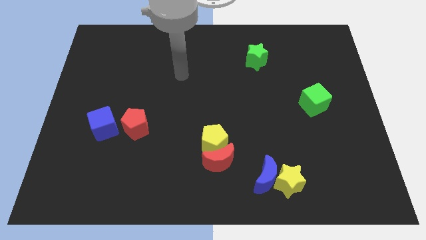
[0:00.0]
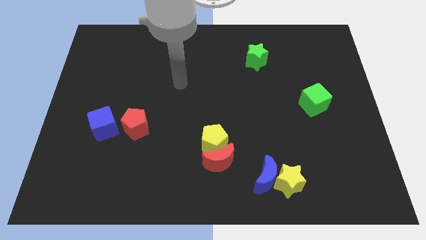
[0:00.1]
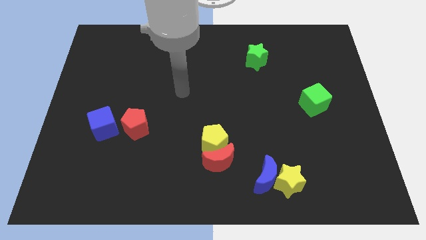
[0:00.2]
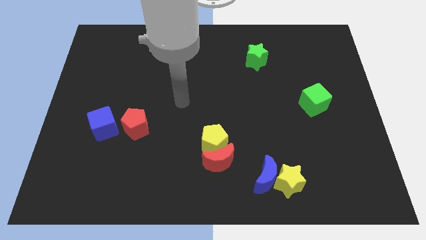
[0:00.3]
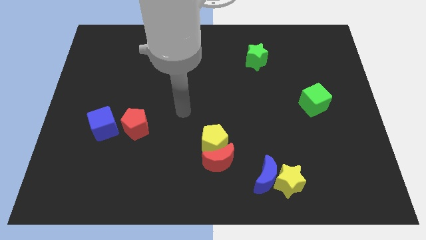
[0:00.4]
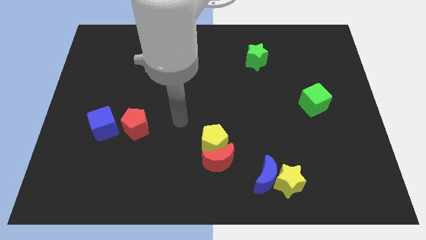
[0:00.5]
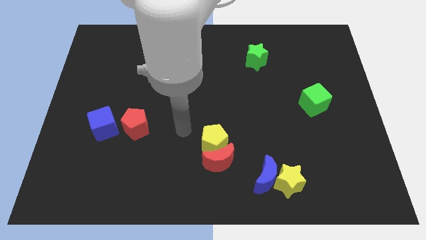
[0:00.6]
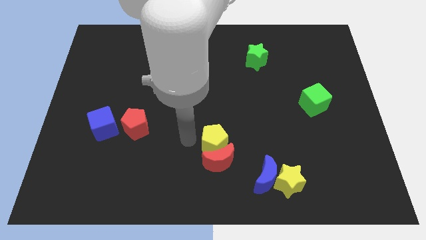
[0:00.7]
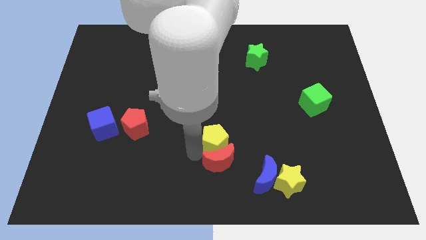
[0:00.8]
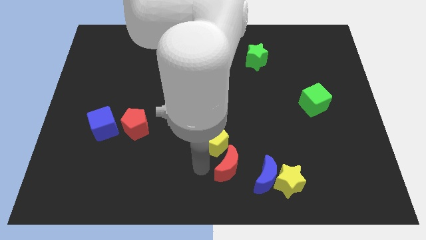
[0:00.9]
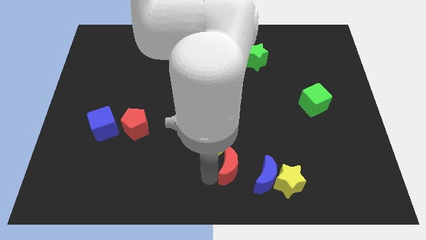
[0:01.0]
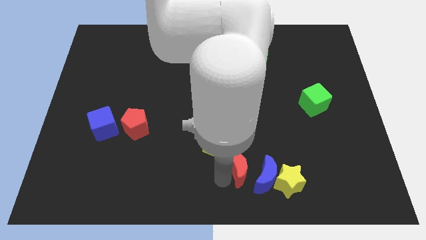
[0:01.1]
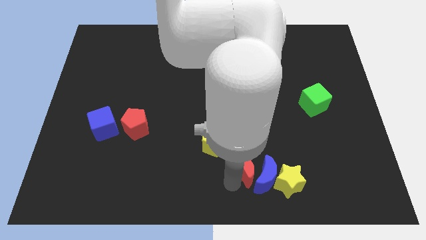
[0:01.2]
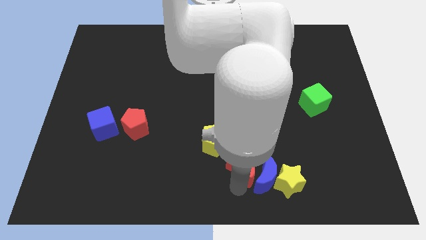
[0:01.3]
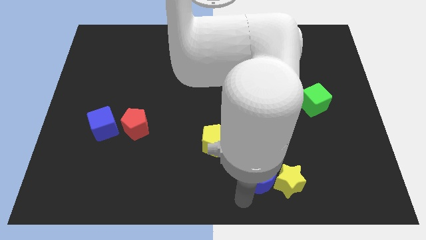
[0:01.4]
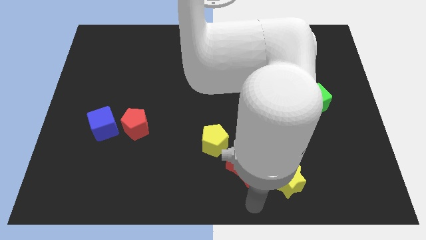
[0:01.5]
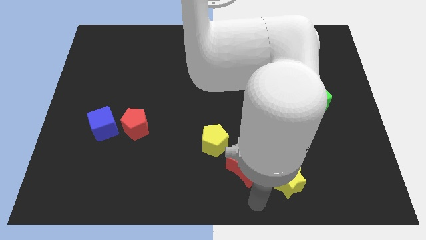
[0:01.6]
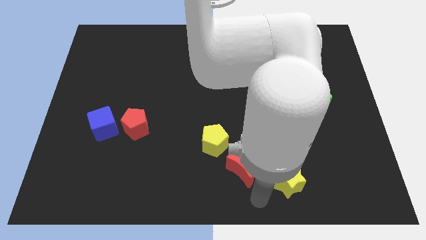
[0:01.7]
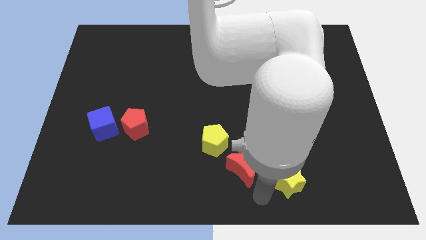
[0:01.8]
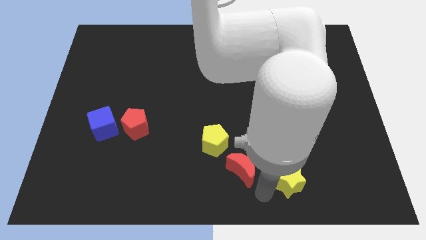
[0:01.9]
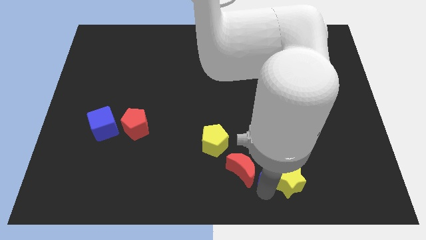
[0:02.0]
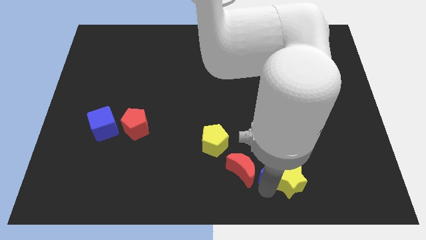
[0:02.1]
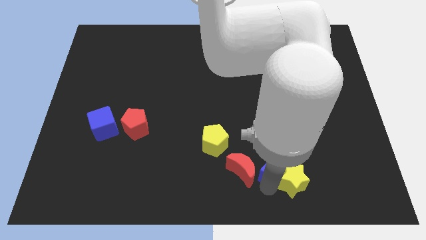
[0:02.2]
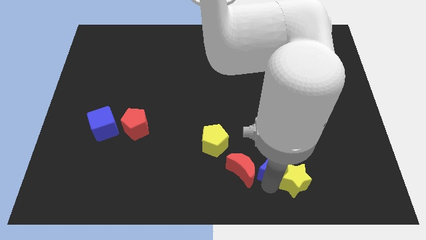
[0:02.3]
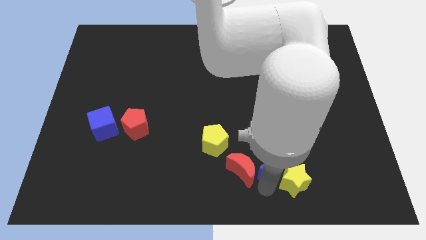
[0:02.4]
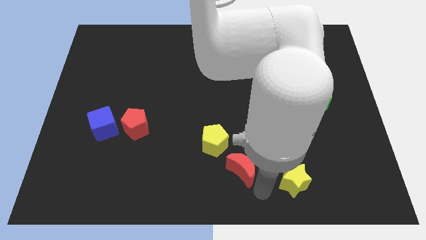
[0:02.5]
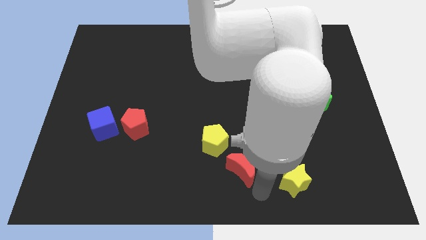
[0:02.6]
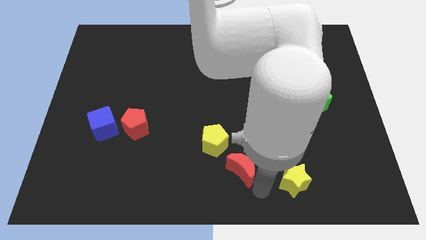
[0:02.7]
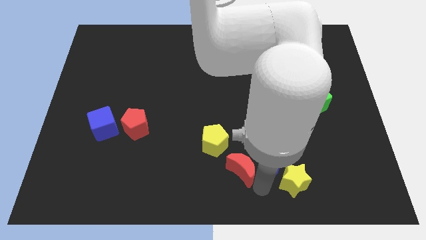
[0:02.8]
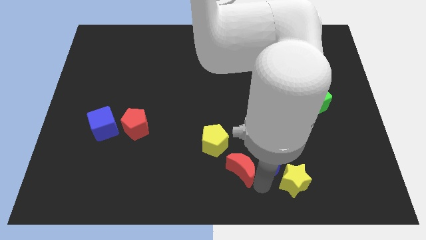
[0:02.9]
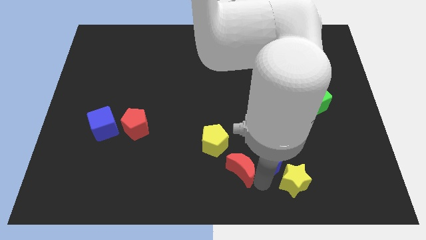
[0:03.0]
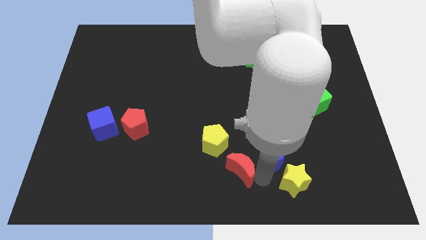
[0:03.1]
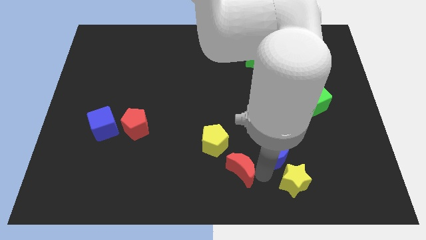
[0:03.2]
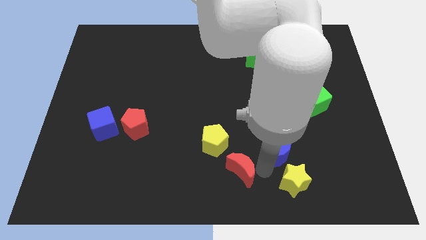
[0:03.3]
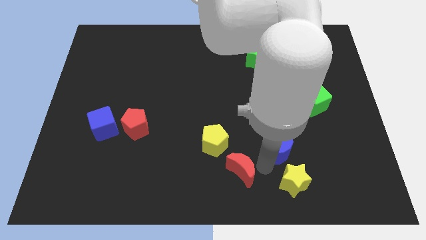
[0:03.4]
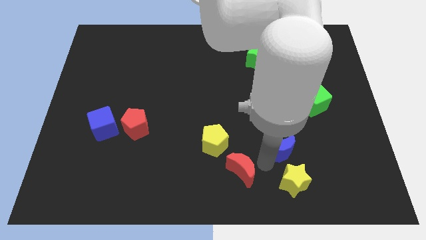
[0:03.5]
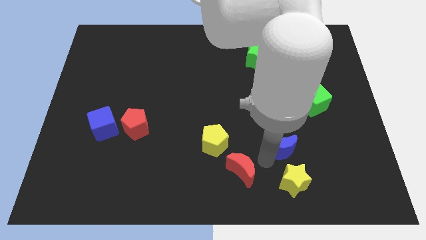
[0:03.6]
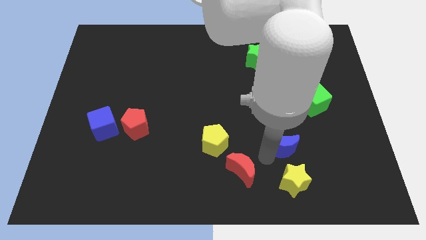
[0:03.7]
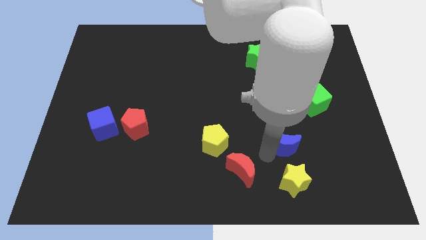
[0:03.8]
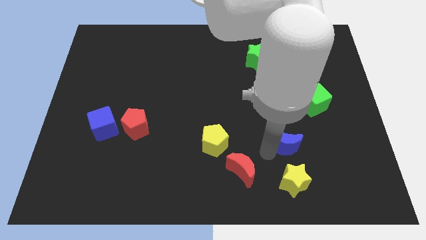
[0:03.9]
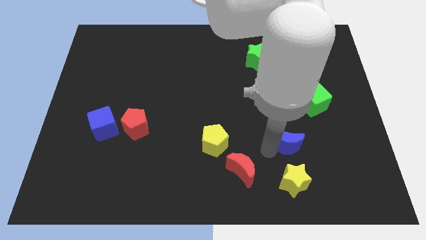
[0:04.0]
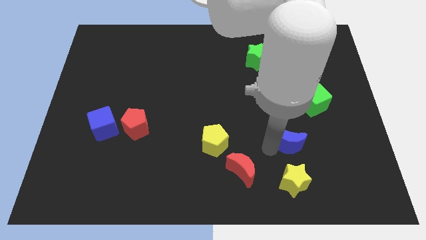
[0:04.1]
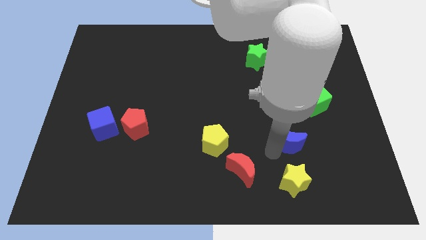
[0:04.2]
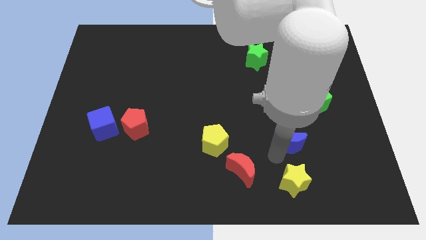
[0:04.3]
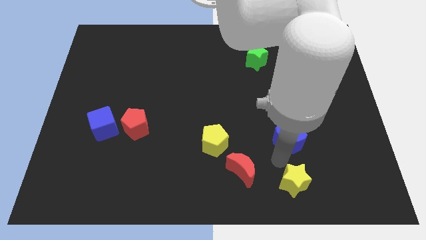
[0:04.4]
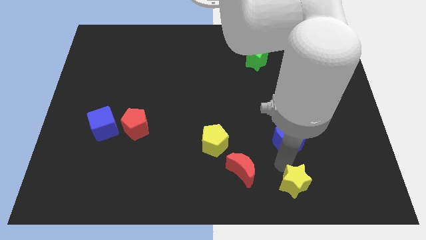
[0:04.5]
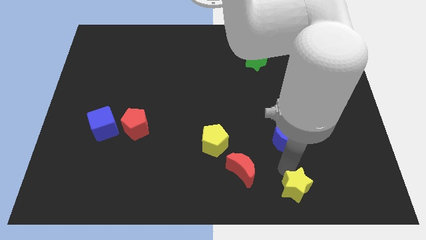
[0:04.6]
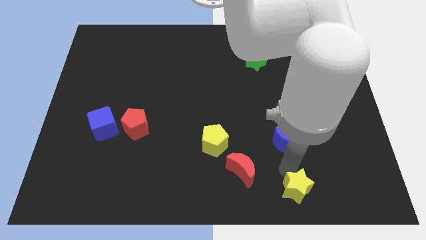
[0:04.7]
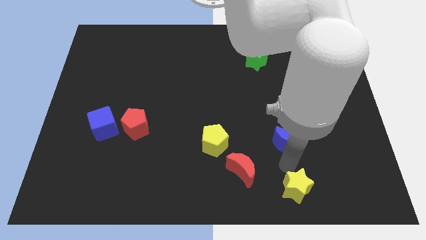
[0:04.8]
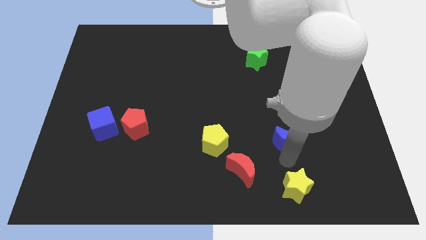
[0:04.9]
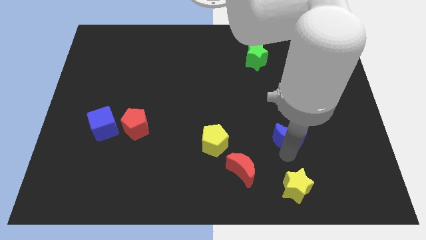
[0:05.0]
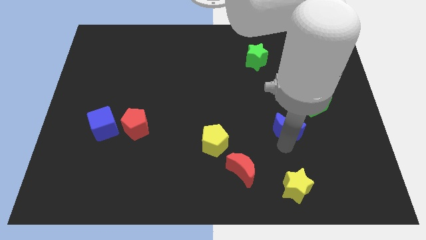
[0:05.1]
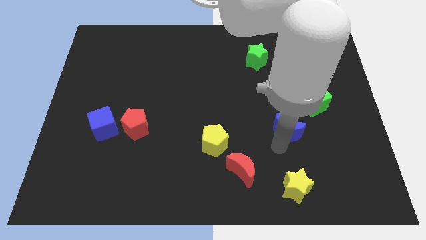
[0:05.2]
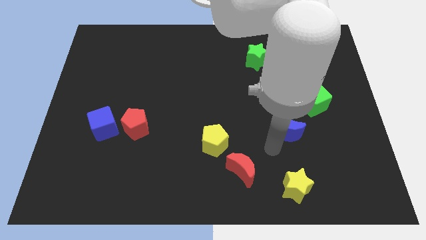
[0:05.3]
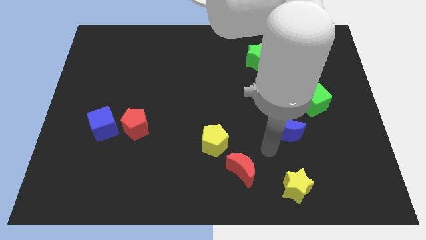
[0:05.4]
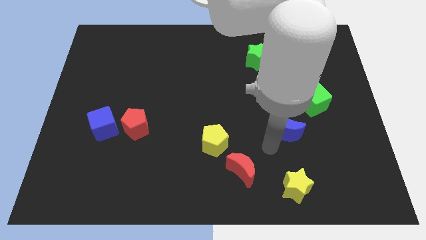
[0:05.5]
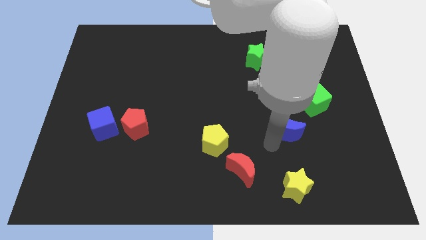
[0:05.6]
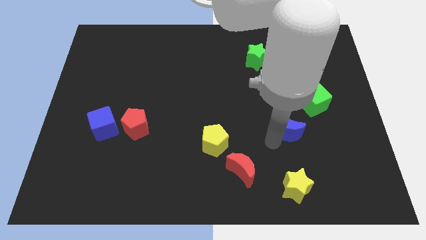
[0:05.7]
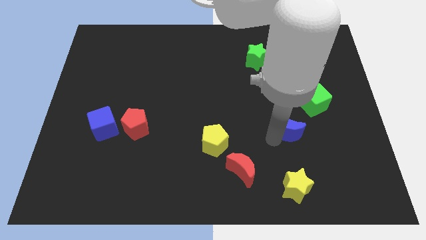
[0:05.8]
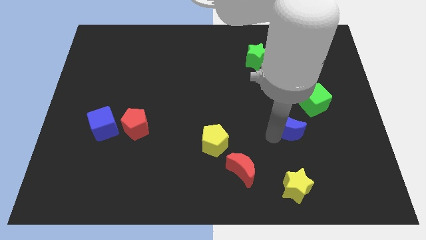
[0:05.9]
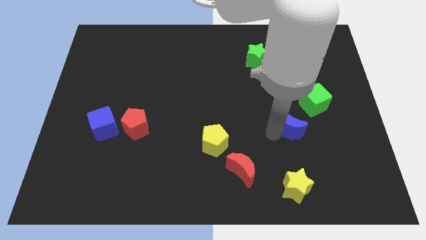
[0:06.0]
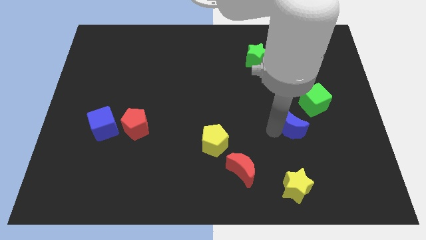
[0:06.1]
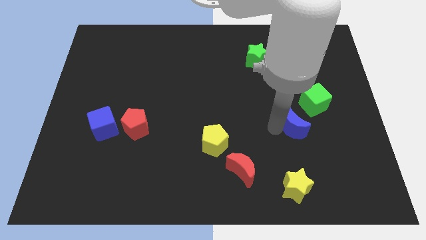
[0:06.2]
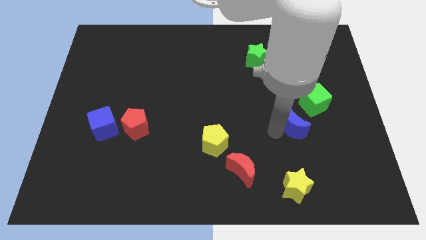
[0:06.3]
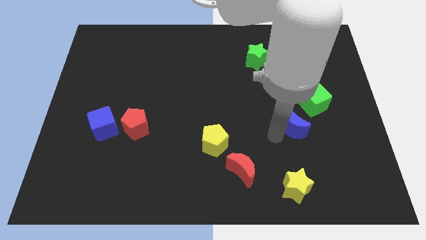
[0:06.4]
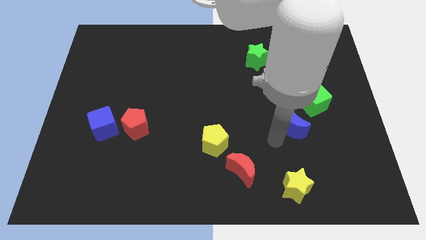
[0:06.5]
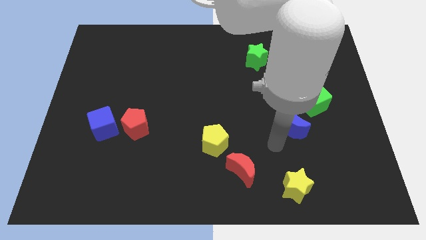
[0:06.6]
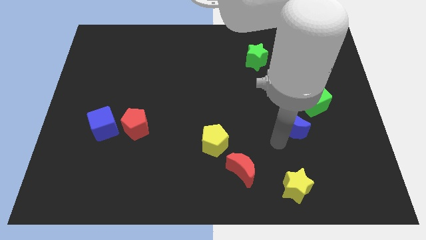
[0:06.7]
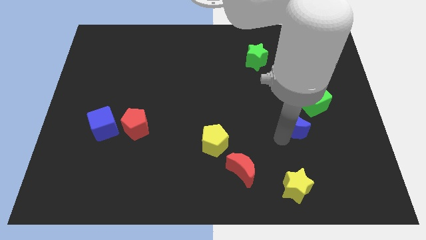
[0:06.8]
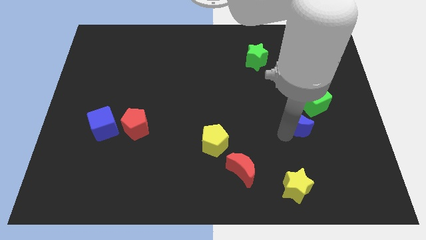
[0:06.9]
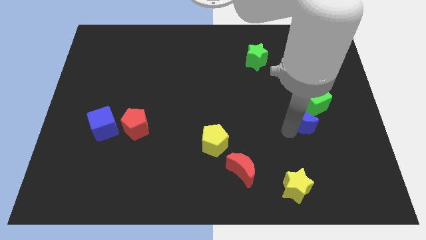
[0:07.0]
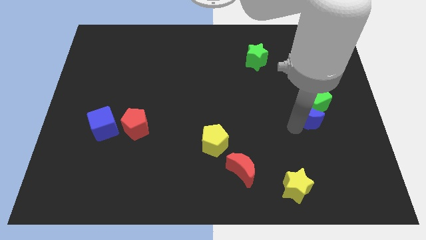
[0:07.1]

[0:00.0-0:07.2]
move the blue moon to the green cube

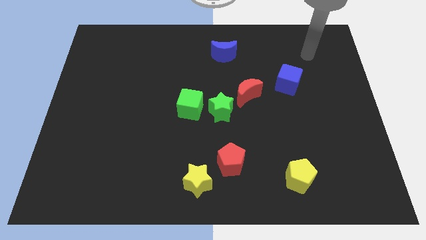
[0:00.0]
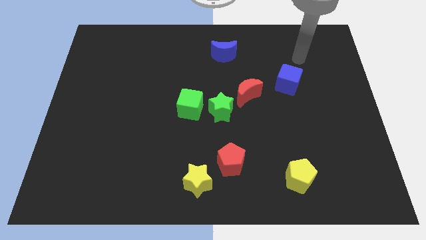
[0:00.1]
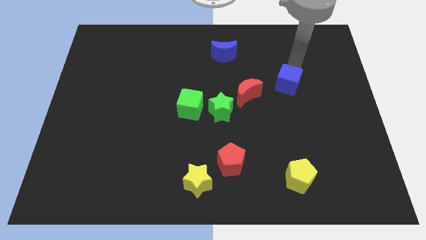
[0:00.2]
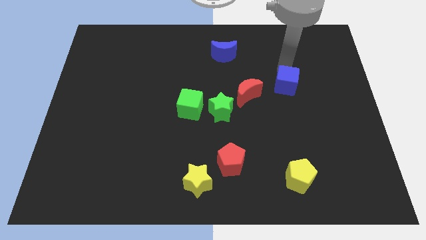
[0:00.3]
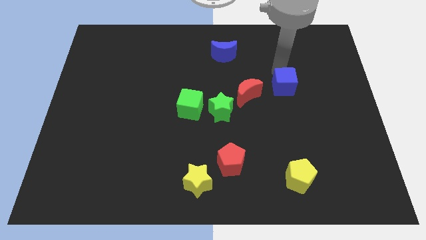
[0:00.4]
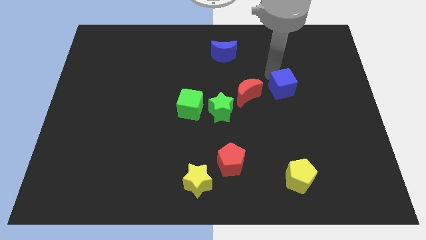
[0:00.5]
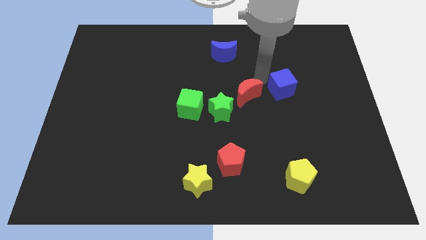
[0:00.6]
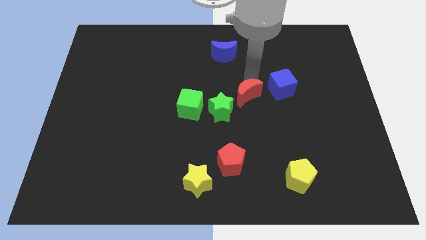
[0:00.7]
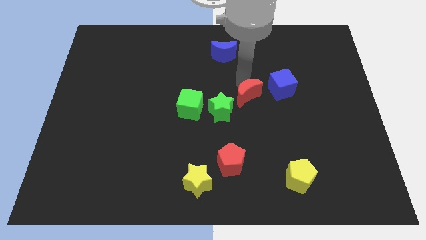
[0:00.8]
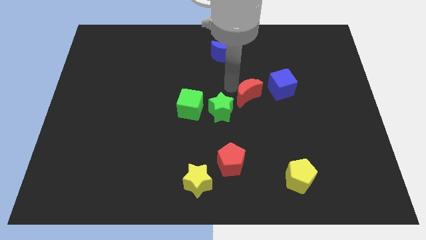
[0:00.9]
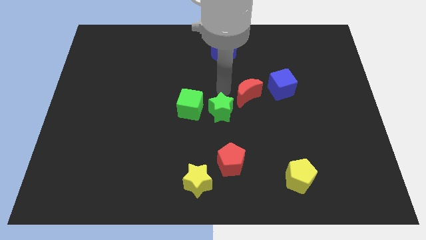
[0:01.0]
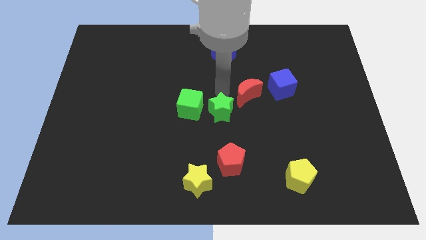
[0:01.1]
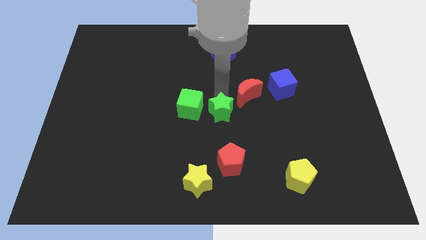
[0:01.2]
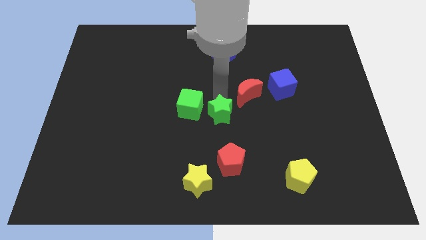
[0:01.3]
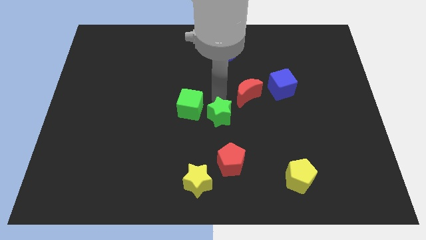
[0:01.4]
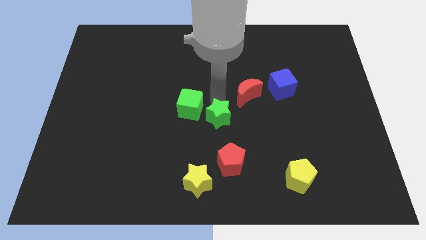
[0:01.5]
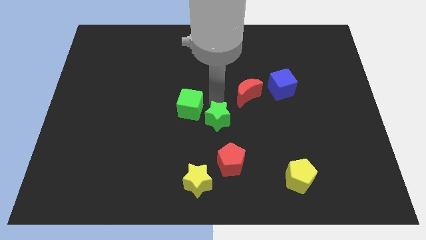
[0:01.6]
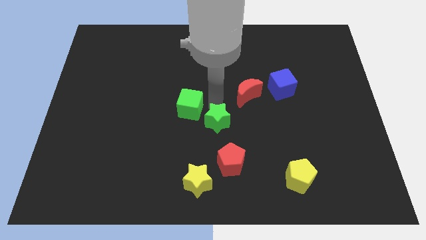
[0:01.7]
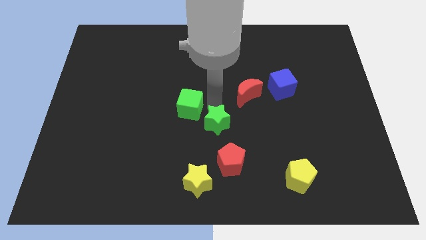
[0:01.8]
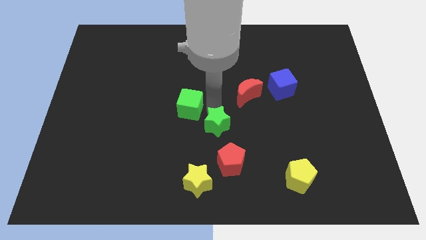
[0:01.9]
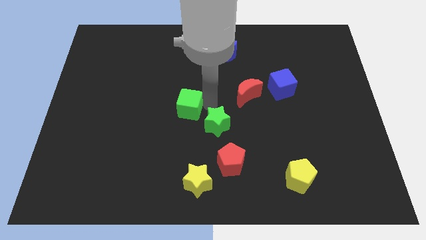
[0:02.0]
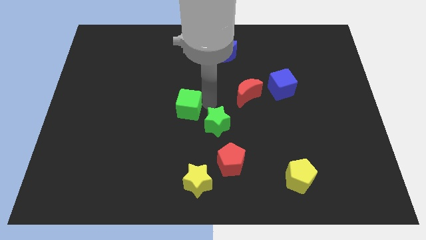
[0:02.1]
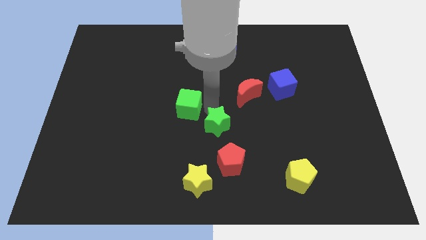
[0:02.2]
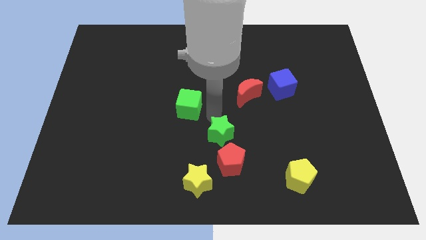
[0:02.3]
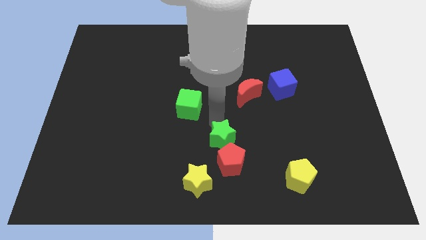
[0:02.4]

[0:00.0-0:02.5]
push the green star next to the red pentagon
